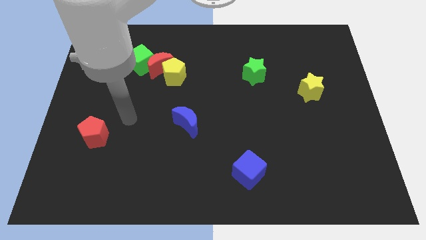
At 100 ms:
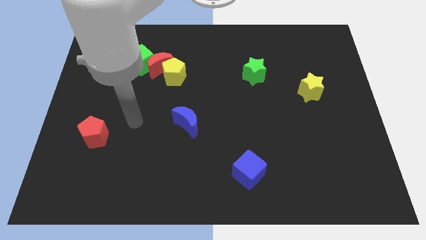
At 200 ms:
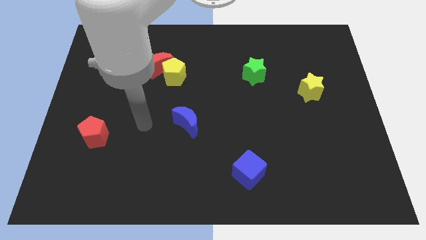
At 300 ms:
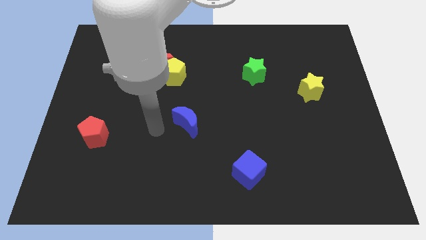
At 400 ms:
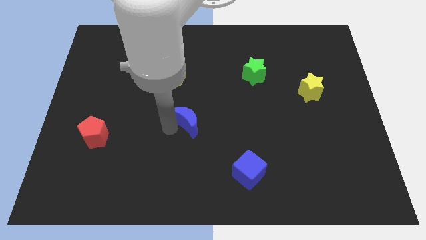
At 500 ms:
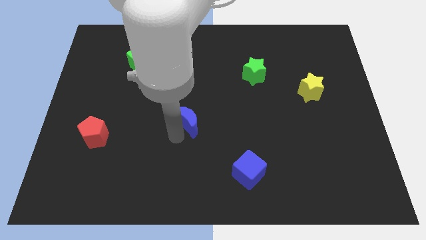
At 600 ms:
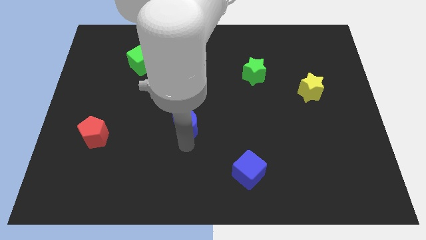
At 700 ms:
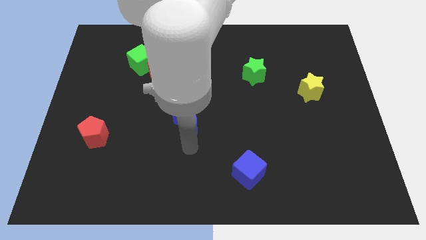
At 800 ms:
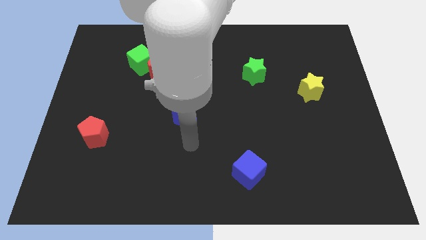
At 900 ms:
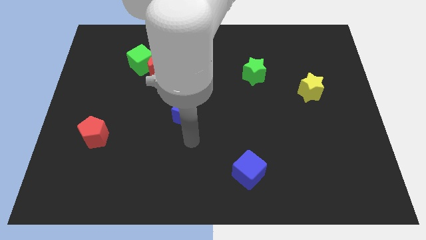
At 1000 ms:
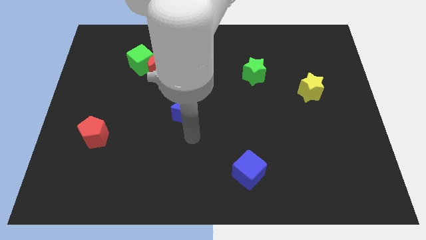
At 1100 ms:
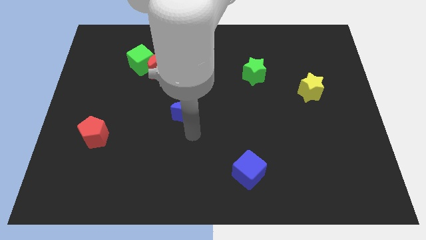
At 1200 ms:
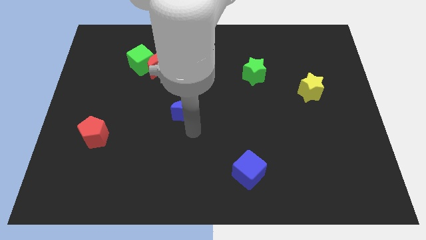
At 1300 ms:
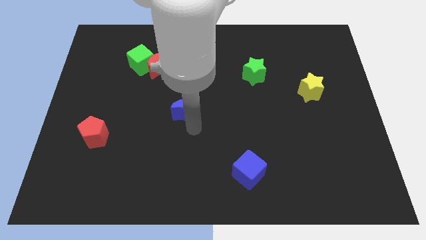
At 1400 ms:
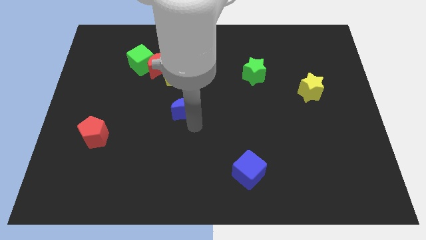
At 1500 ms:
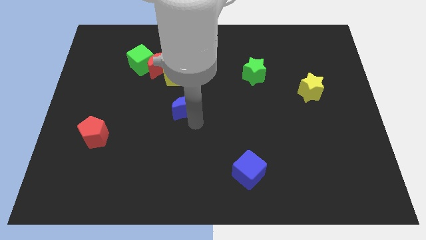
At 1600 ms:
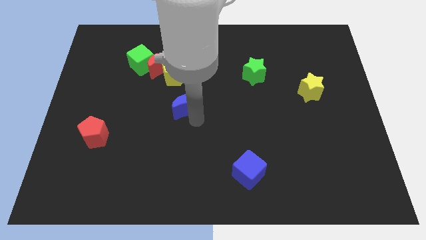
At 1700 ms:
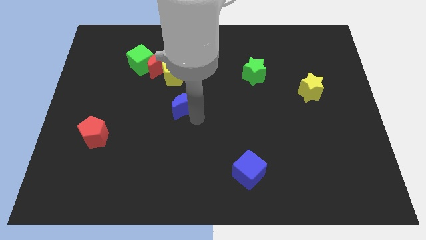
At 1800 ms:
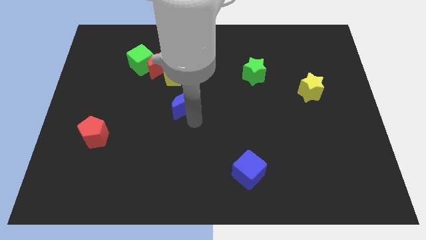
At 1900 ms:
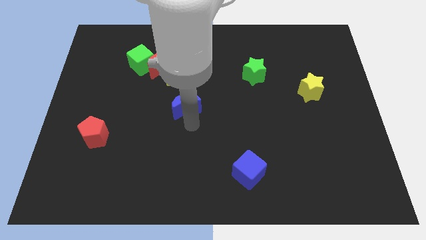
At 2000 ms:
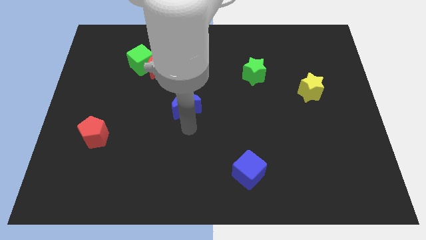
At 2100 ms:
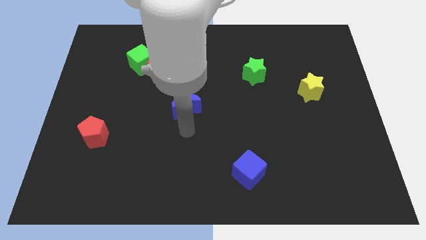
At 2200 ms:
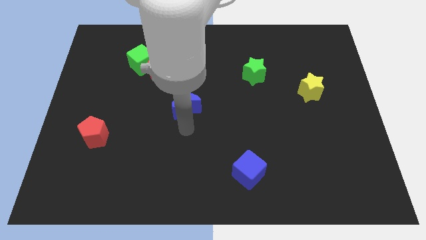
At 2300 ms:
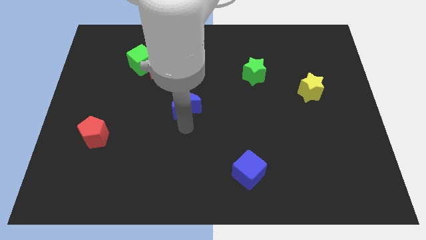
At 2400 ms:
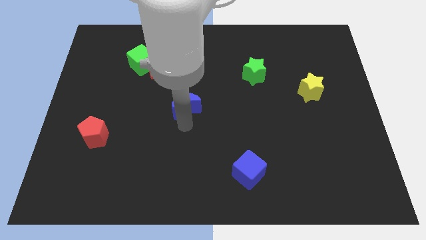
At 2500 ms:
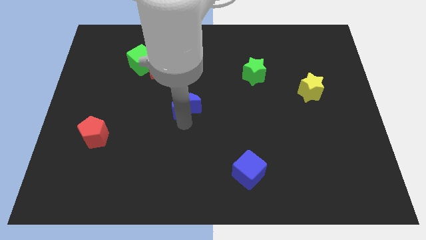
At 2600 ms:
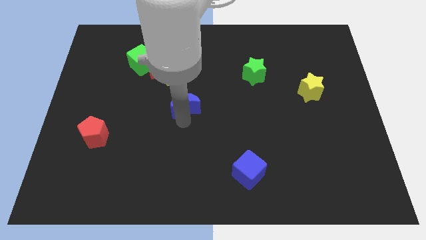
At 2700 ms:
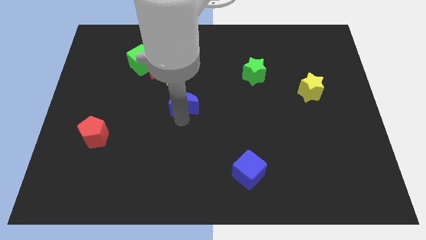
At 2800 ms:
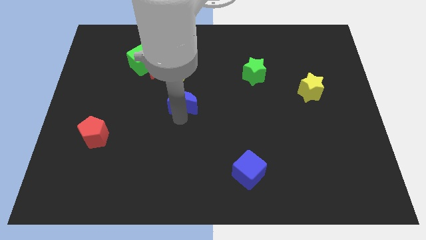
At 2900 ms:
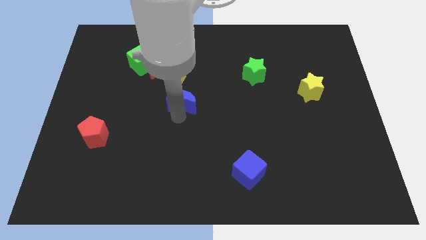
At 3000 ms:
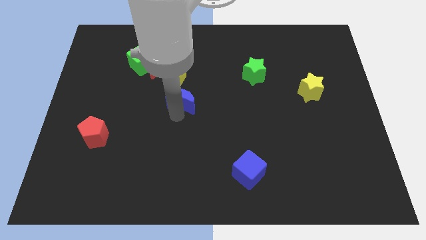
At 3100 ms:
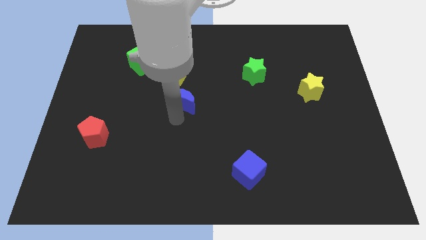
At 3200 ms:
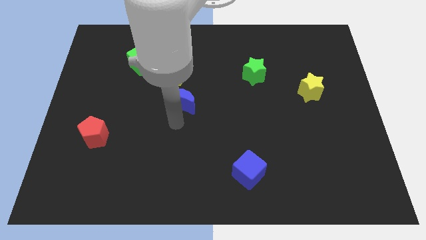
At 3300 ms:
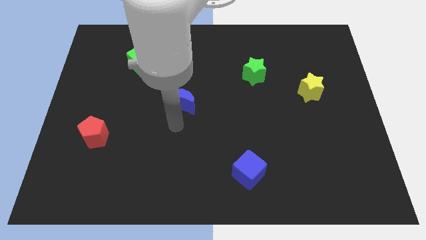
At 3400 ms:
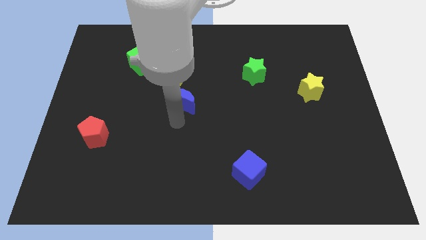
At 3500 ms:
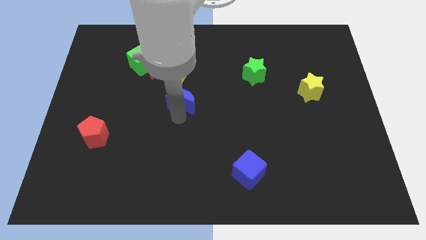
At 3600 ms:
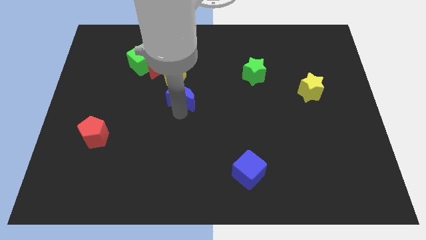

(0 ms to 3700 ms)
push the blue moon a little bit up

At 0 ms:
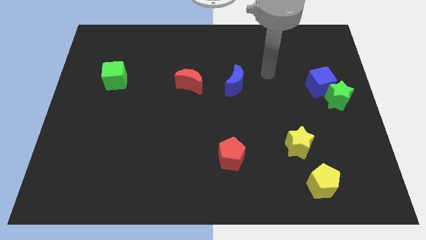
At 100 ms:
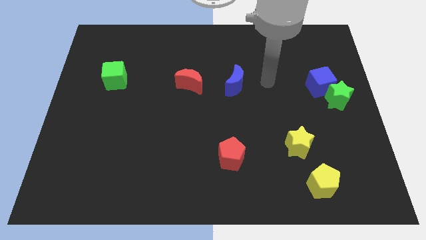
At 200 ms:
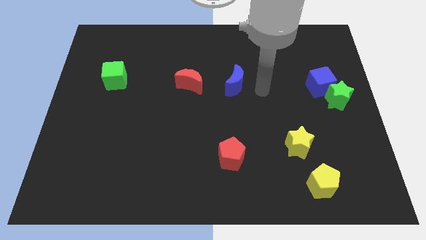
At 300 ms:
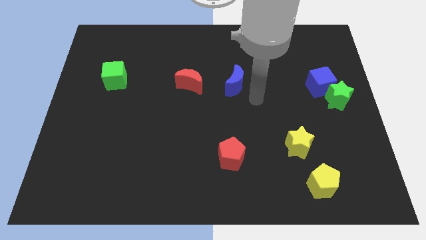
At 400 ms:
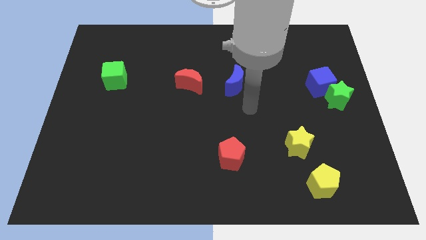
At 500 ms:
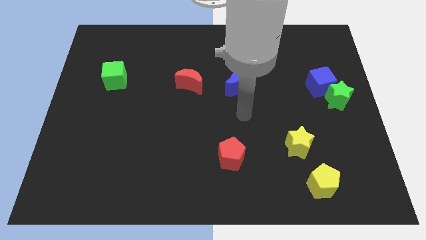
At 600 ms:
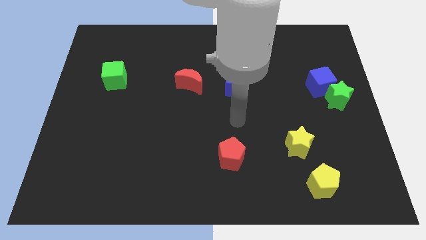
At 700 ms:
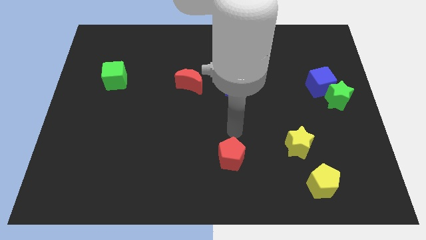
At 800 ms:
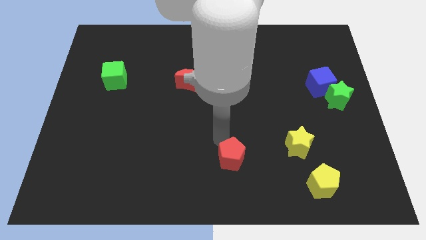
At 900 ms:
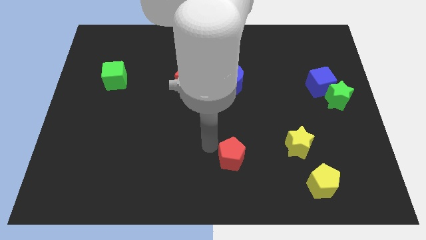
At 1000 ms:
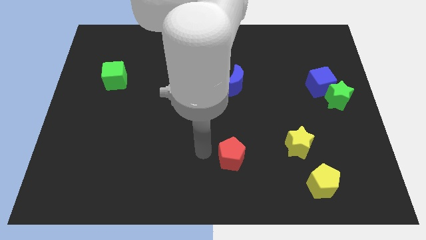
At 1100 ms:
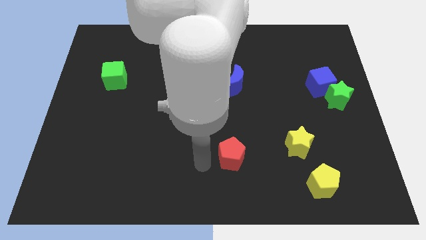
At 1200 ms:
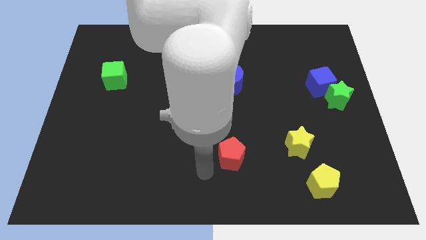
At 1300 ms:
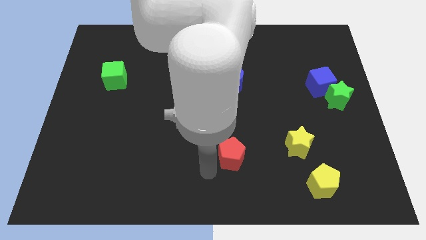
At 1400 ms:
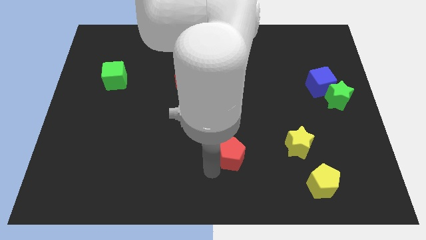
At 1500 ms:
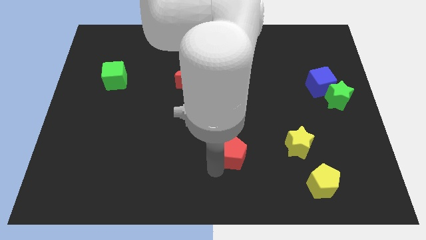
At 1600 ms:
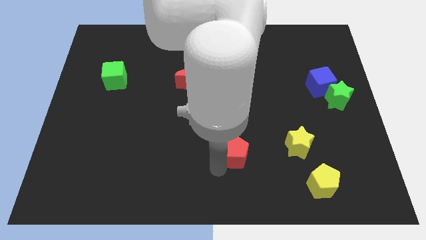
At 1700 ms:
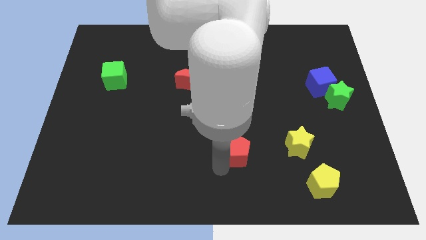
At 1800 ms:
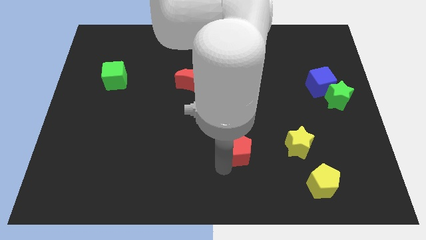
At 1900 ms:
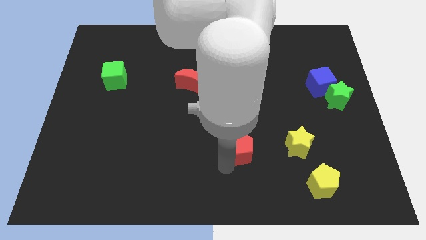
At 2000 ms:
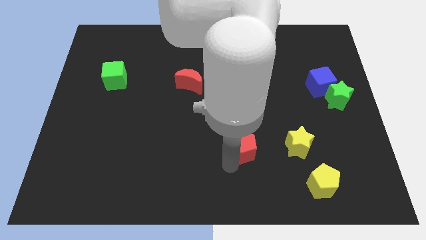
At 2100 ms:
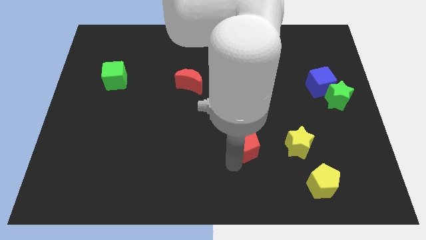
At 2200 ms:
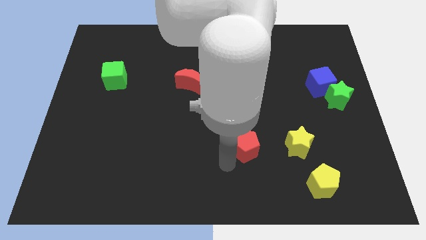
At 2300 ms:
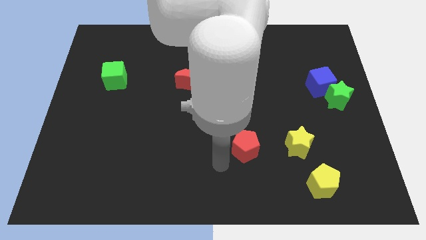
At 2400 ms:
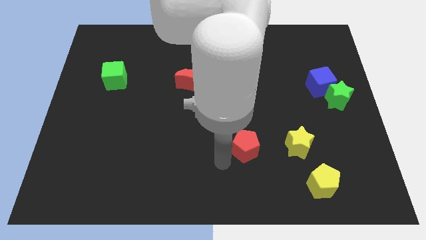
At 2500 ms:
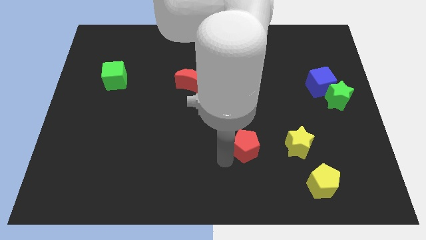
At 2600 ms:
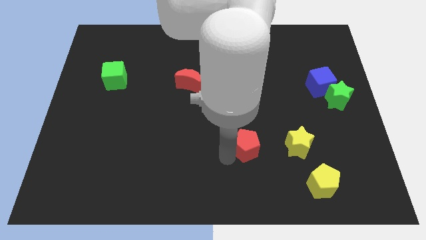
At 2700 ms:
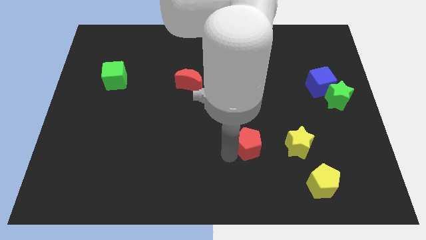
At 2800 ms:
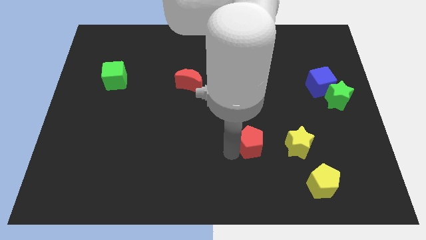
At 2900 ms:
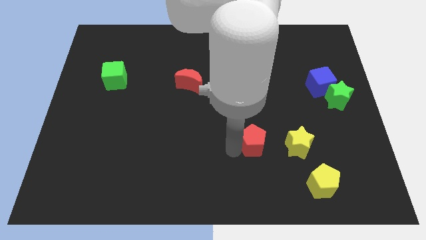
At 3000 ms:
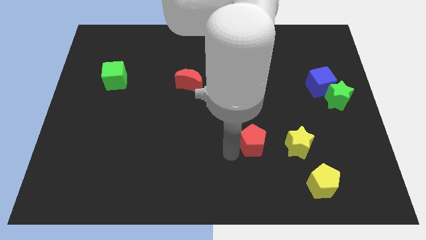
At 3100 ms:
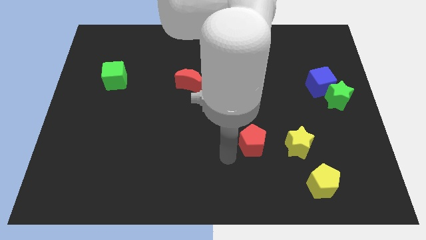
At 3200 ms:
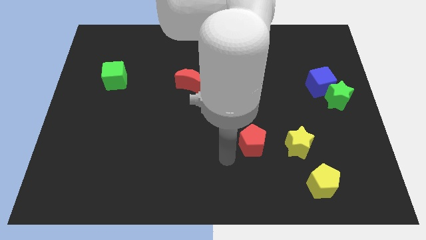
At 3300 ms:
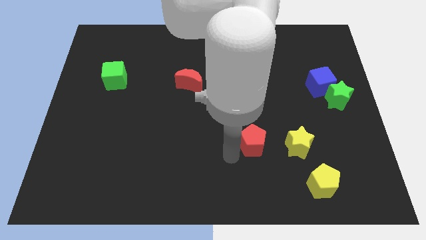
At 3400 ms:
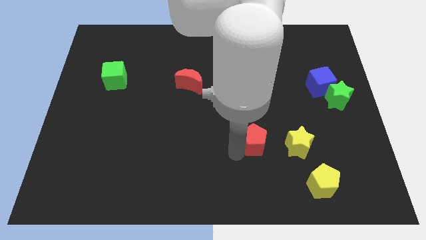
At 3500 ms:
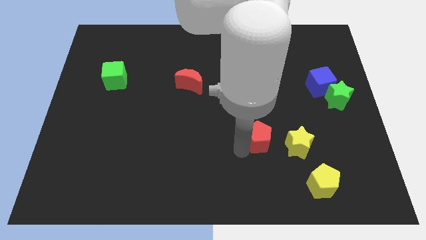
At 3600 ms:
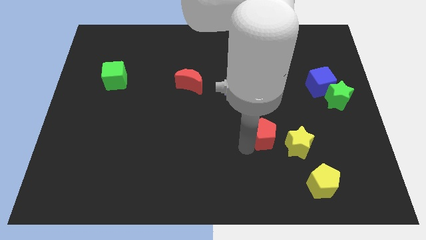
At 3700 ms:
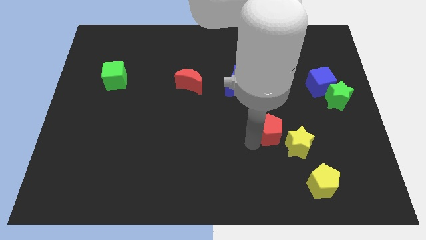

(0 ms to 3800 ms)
slide the red pentagon to the right a little

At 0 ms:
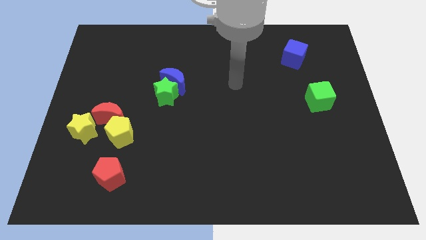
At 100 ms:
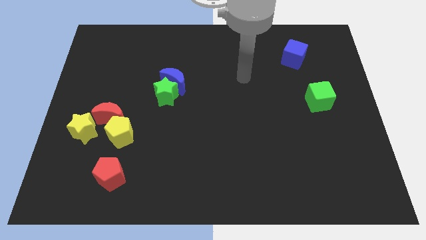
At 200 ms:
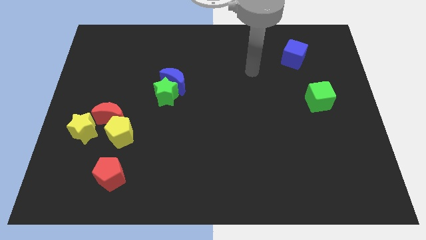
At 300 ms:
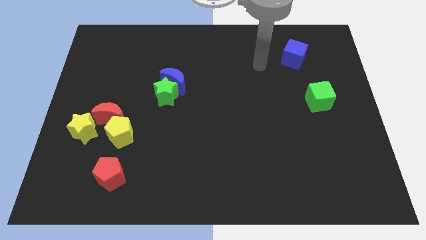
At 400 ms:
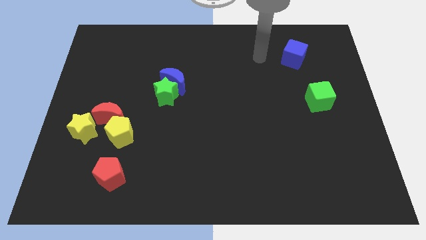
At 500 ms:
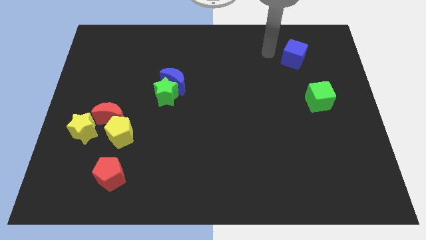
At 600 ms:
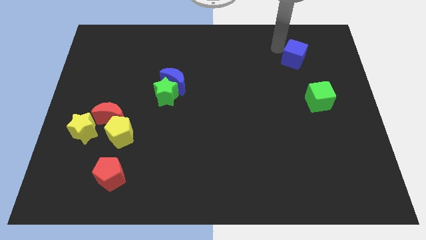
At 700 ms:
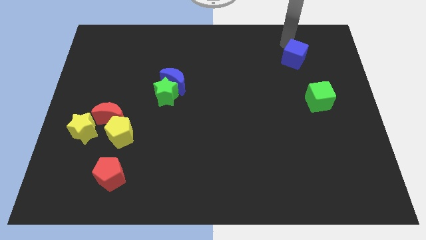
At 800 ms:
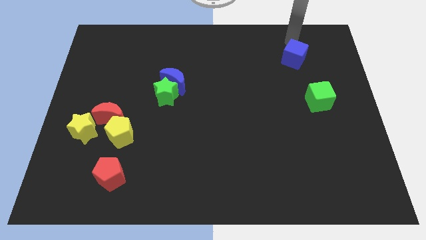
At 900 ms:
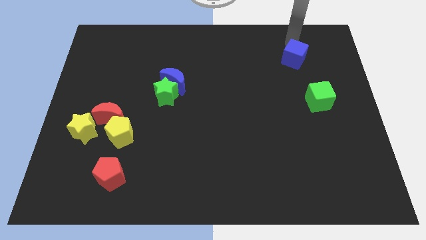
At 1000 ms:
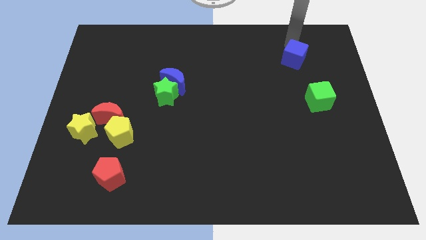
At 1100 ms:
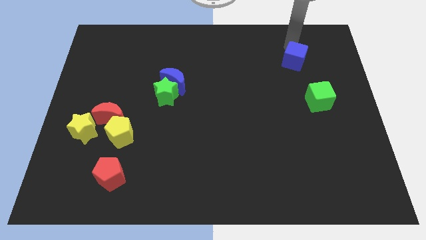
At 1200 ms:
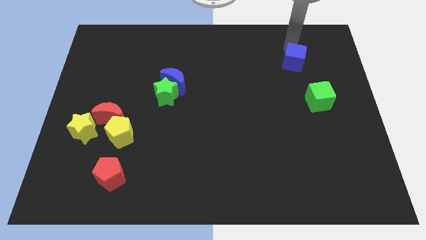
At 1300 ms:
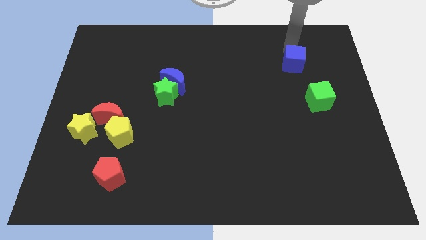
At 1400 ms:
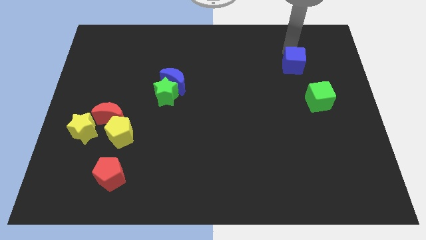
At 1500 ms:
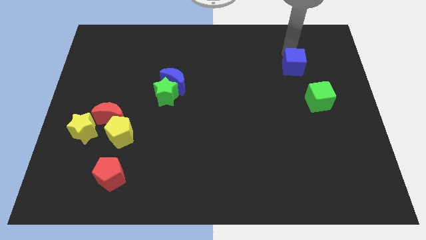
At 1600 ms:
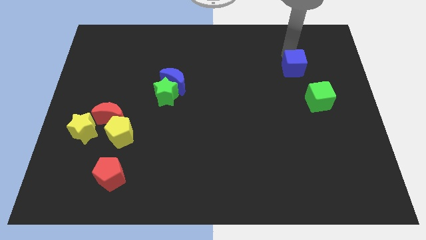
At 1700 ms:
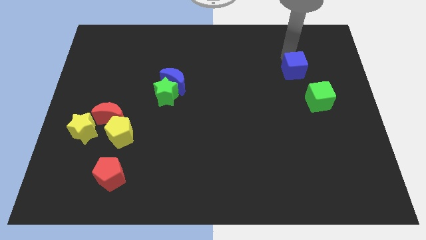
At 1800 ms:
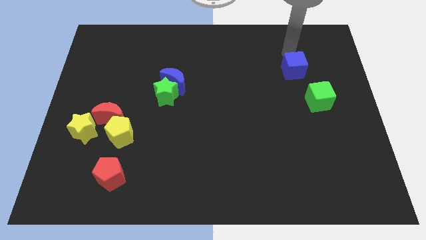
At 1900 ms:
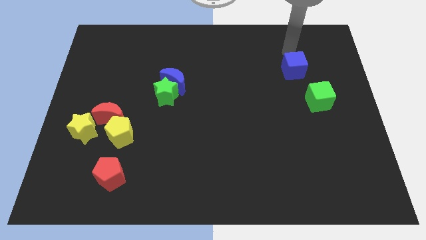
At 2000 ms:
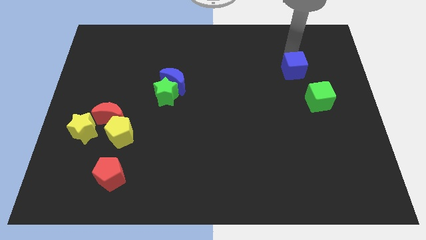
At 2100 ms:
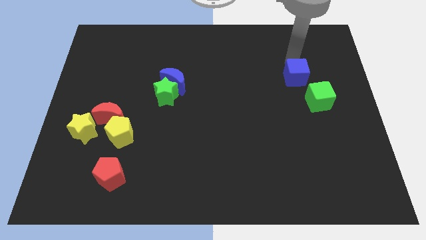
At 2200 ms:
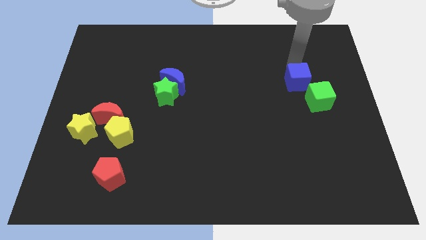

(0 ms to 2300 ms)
slide the blue cube down a little bit
